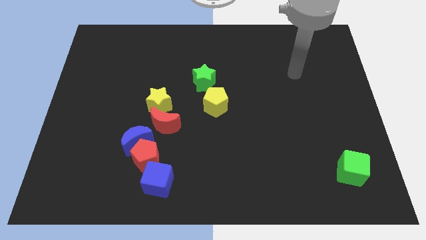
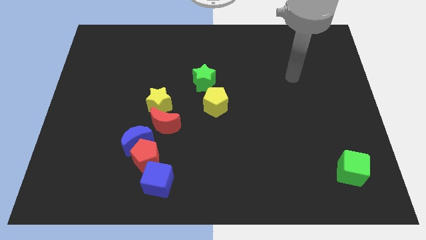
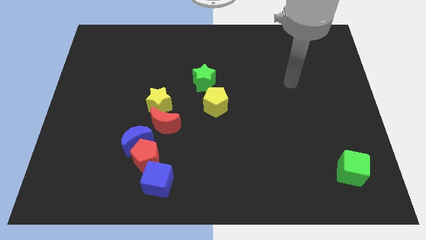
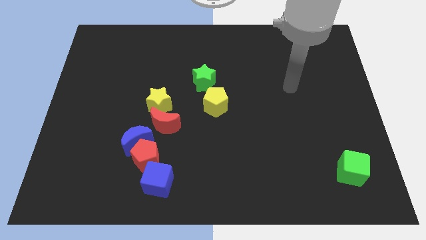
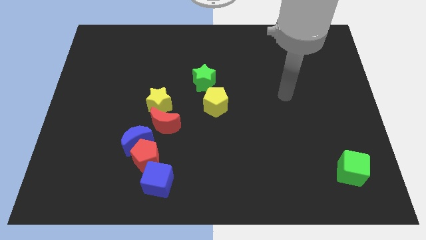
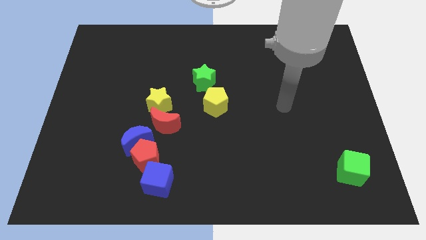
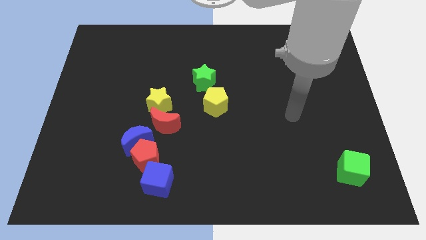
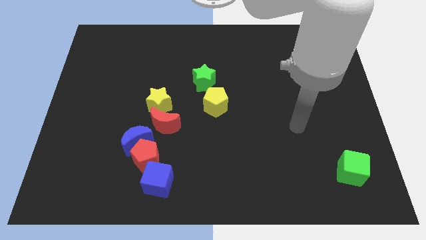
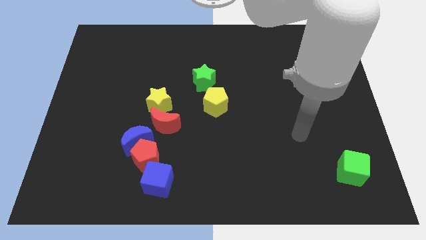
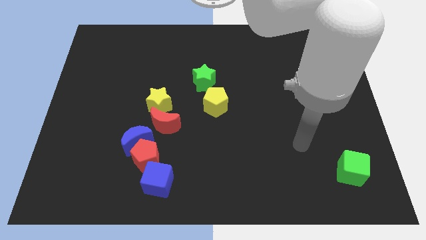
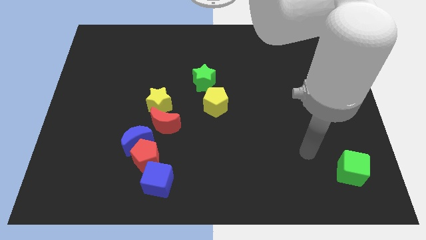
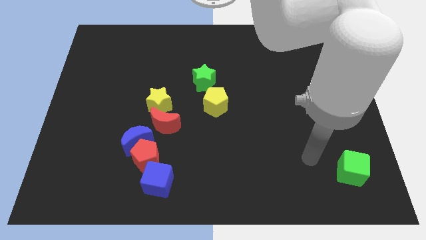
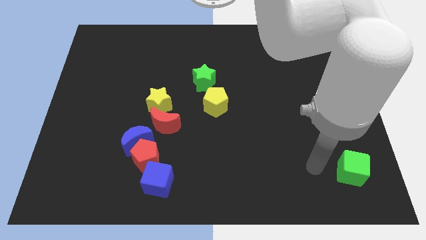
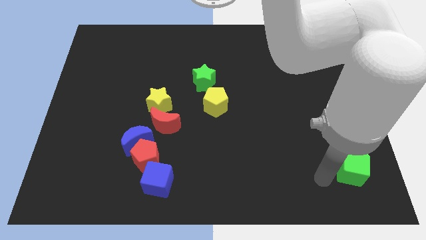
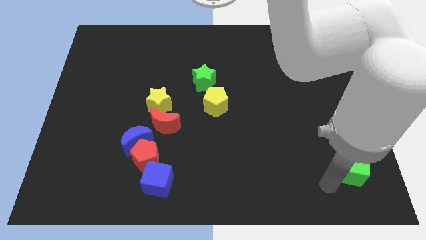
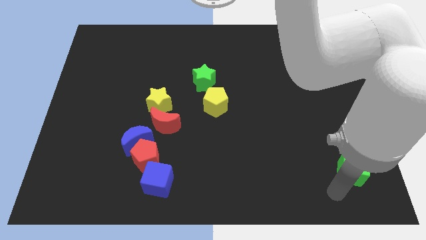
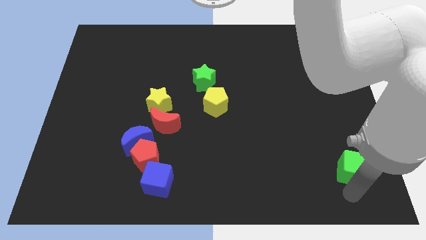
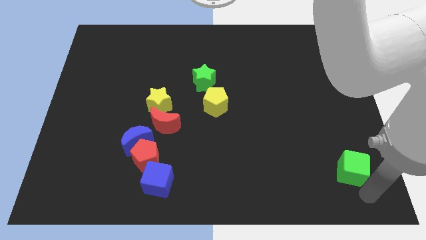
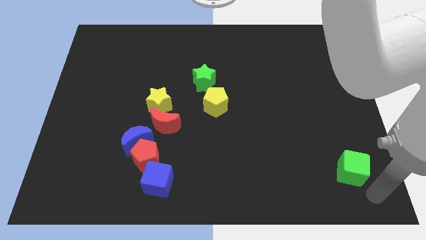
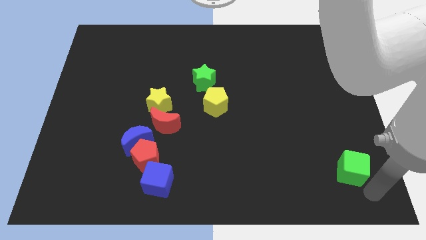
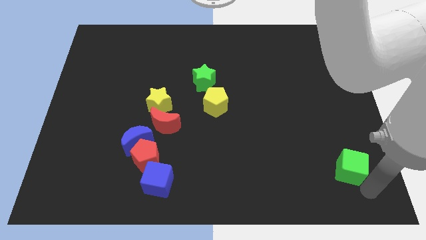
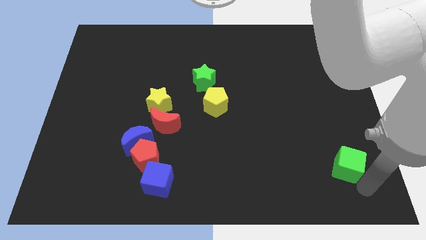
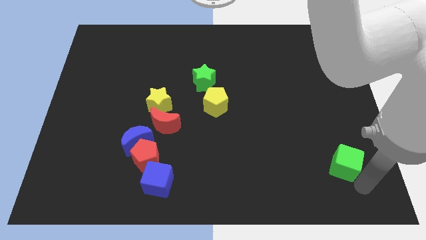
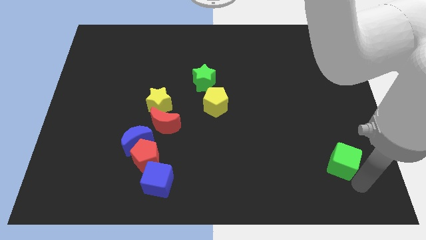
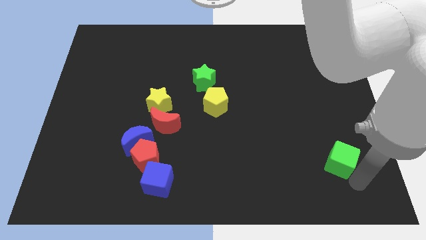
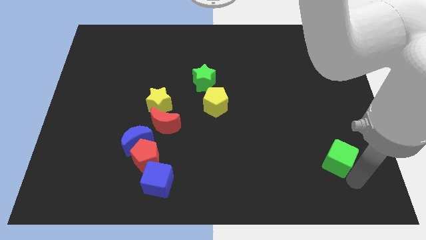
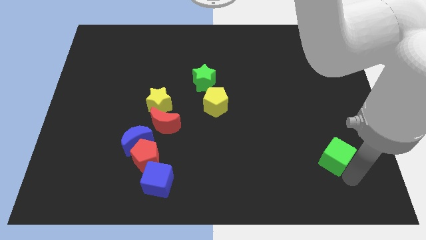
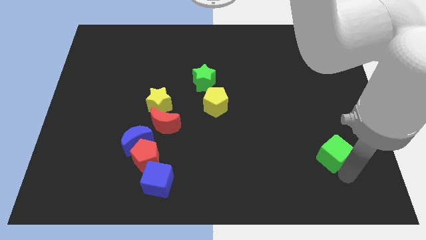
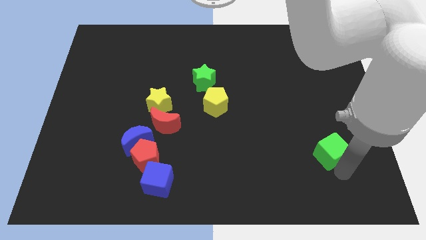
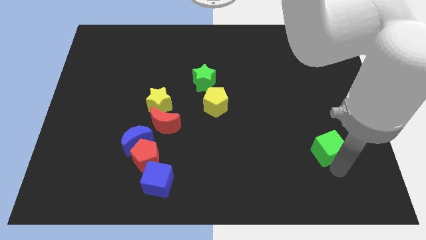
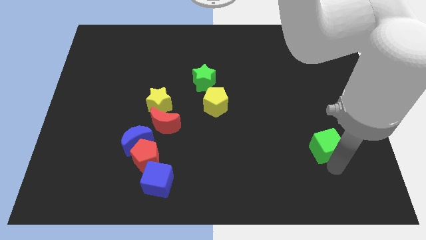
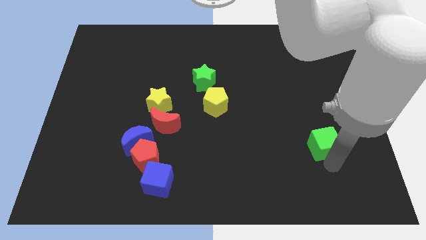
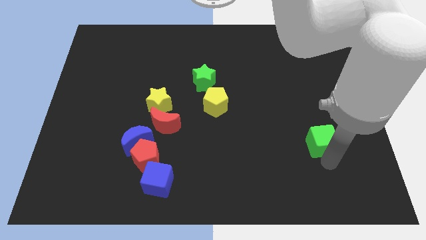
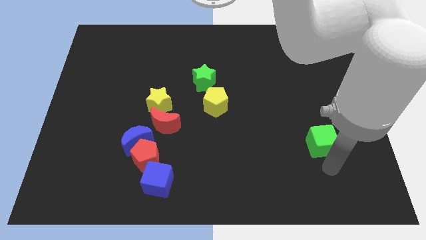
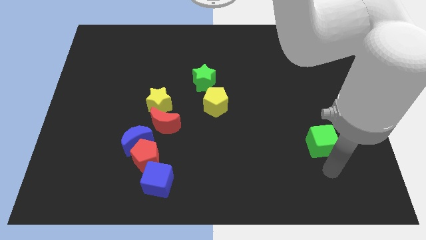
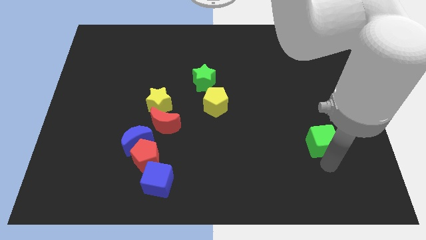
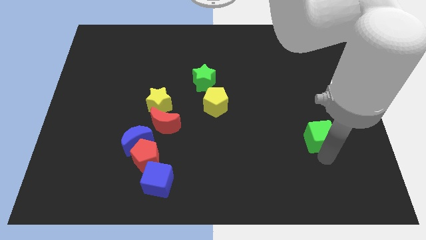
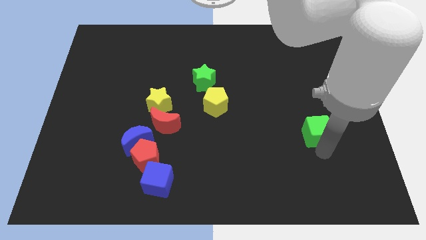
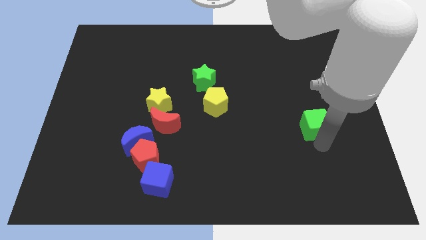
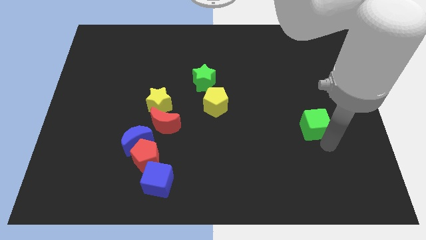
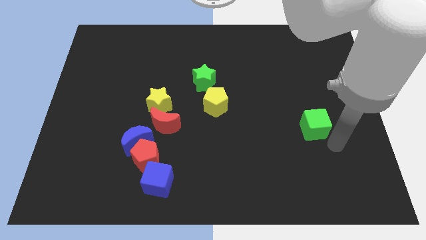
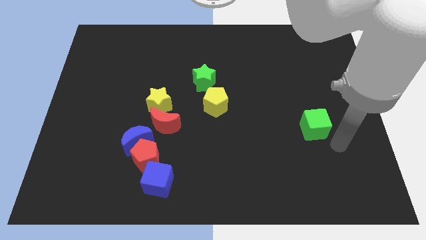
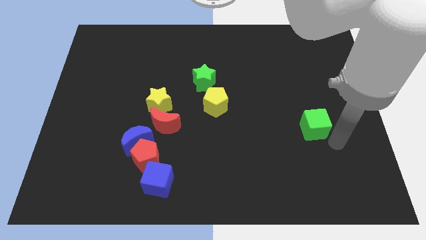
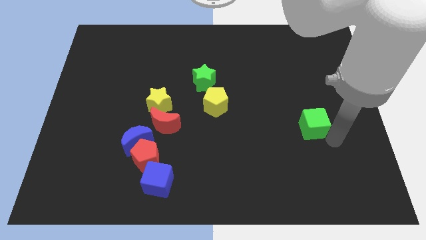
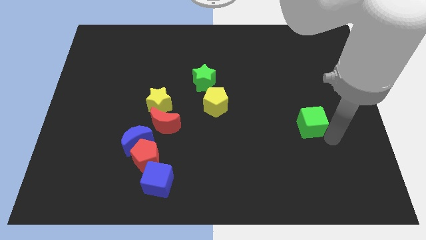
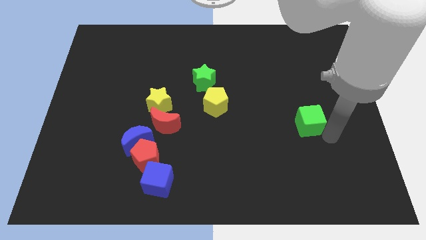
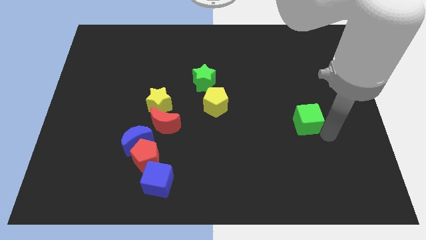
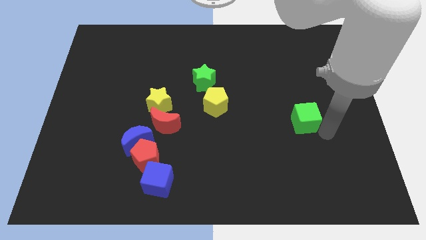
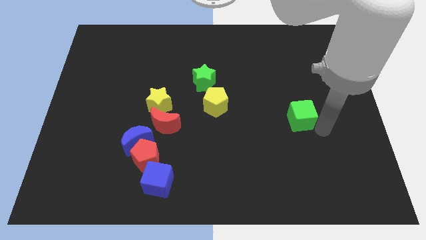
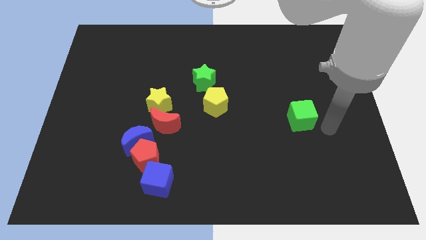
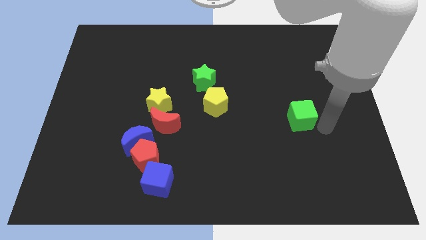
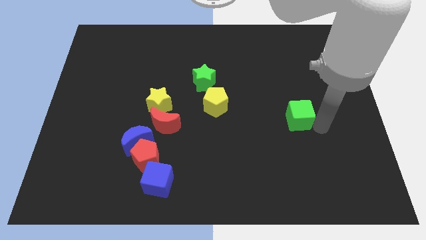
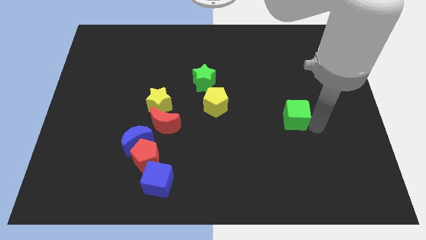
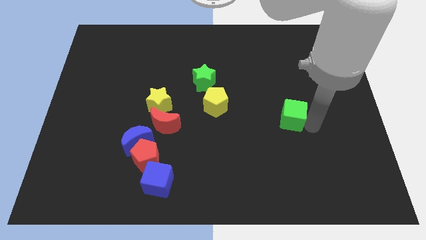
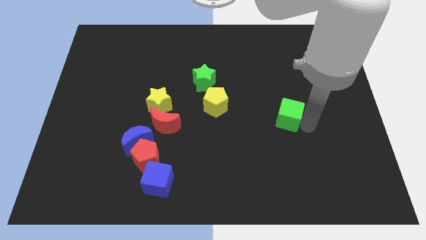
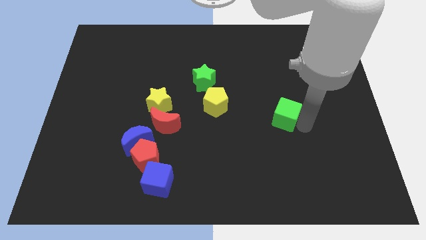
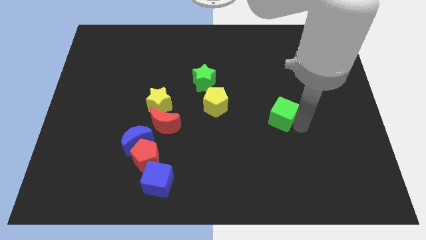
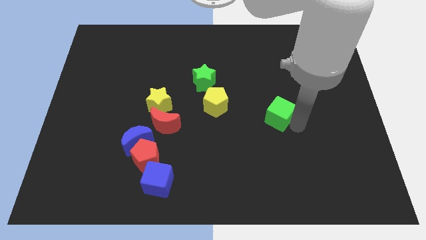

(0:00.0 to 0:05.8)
move the green cube to the right side of the yellow pentagon
